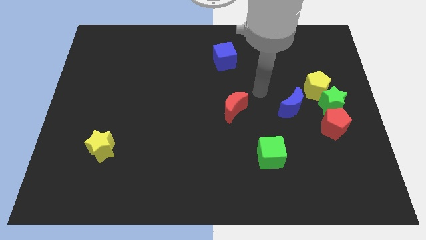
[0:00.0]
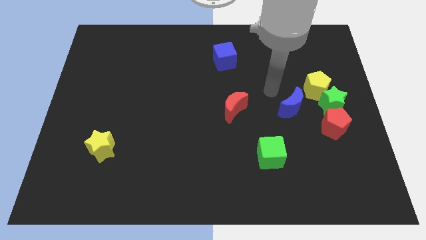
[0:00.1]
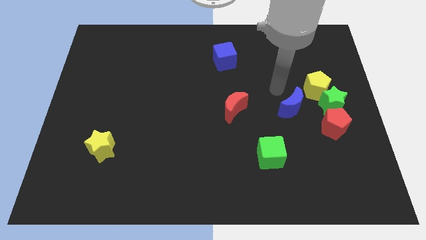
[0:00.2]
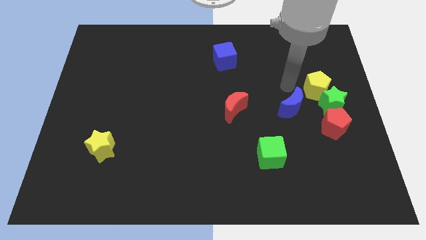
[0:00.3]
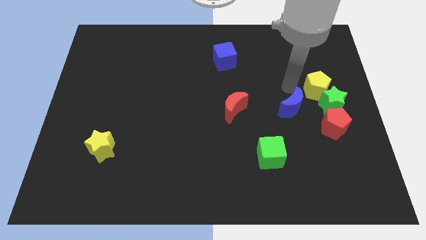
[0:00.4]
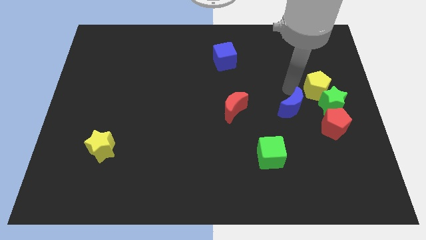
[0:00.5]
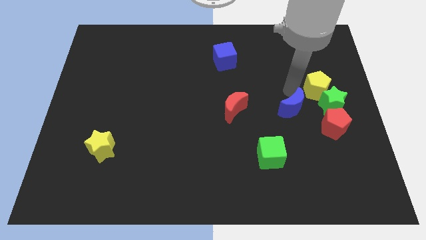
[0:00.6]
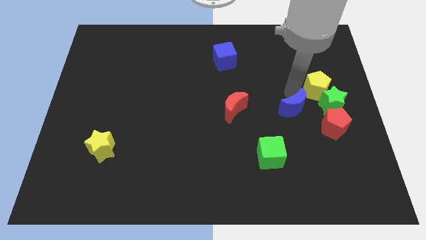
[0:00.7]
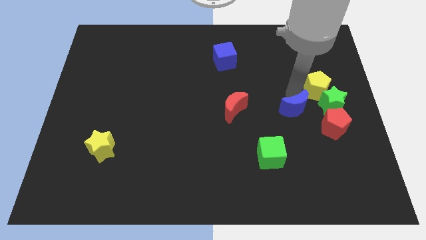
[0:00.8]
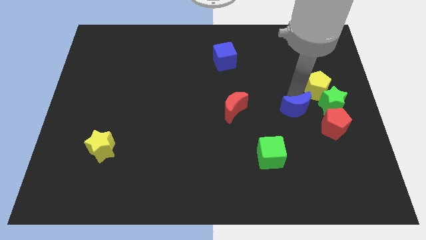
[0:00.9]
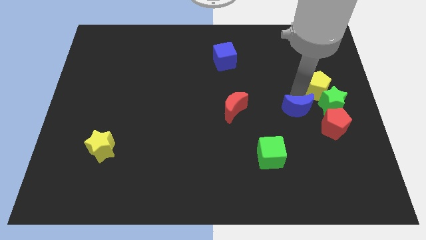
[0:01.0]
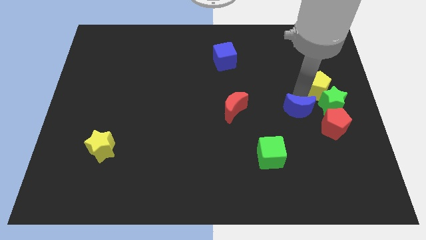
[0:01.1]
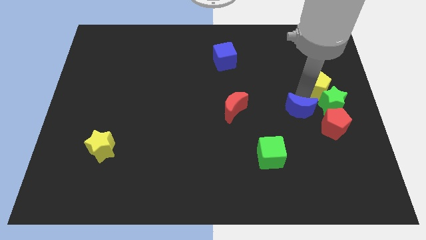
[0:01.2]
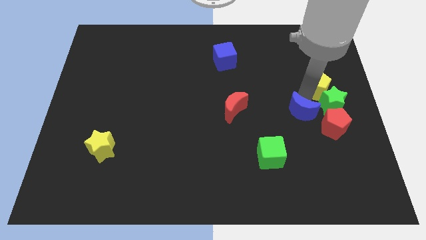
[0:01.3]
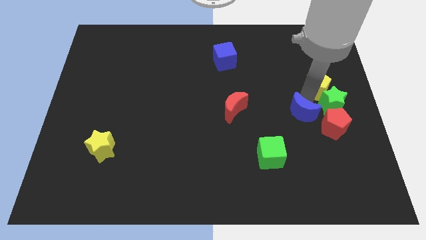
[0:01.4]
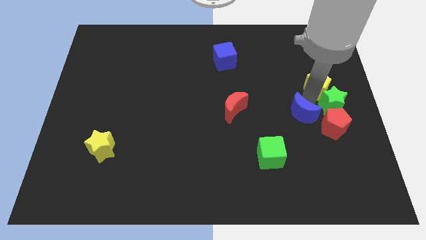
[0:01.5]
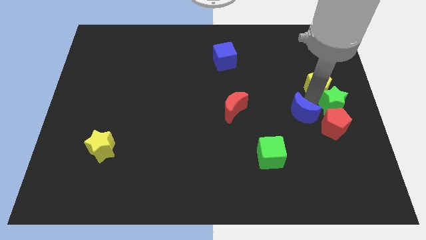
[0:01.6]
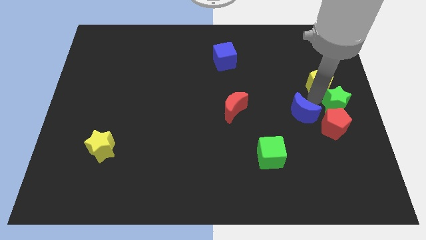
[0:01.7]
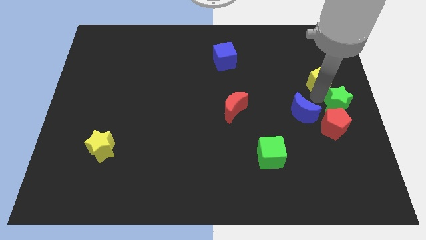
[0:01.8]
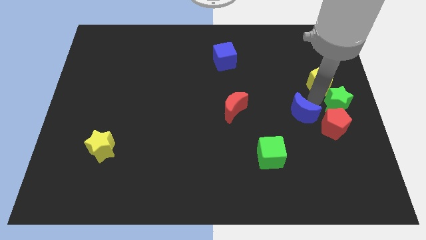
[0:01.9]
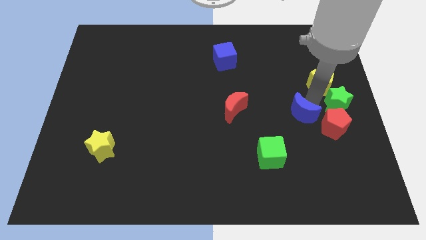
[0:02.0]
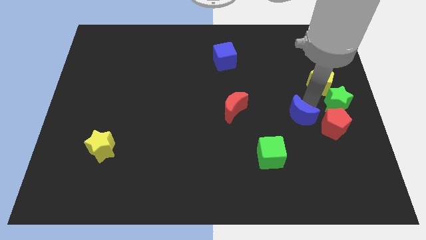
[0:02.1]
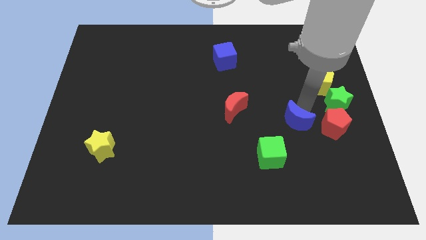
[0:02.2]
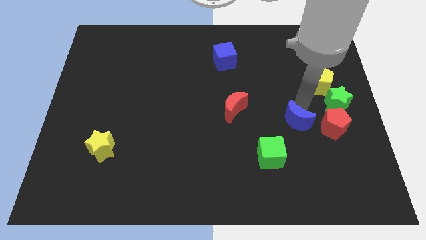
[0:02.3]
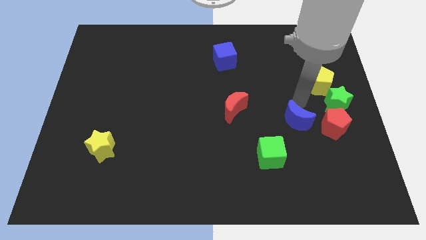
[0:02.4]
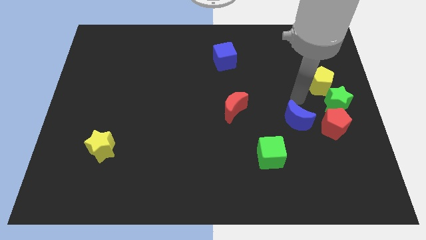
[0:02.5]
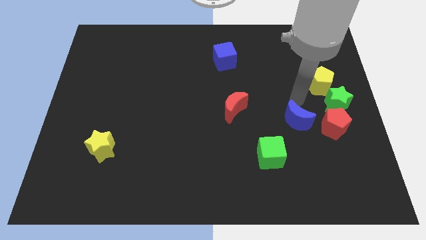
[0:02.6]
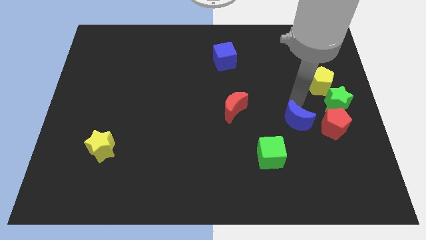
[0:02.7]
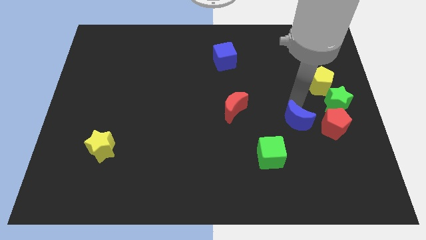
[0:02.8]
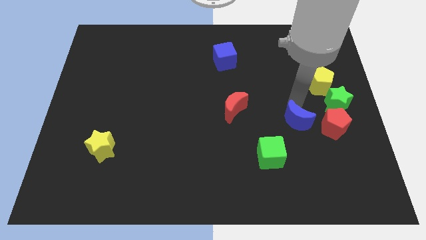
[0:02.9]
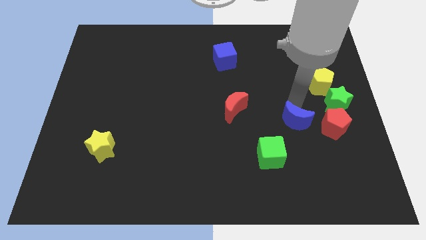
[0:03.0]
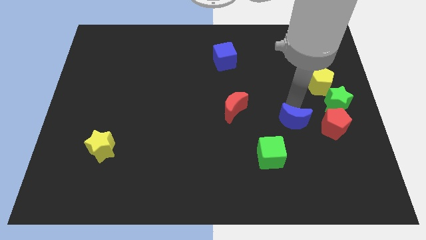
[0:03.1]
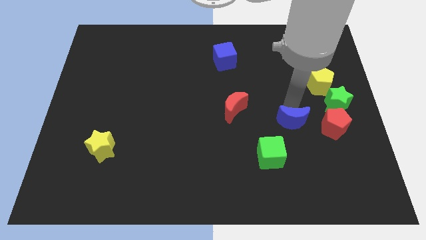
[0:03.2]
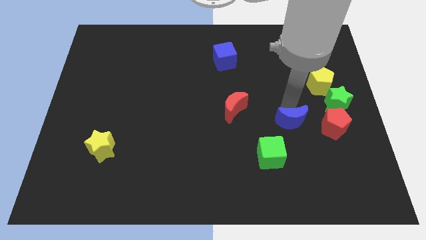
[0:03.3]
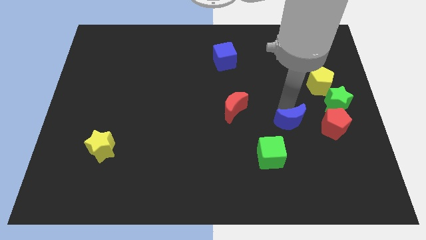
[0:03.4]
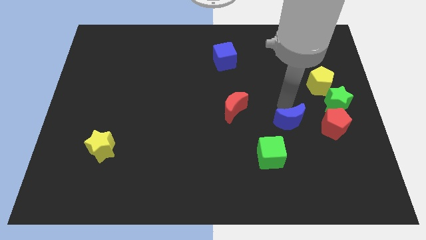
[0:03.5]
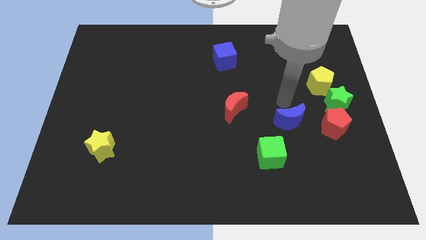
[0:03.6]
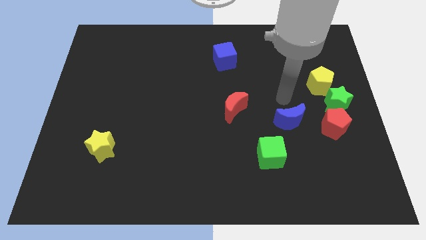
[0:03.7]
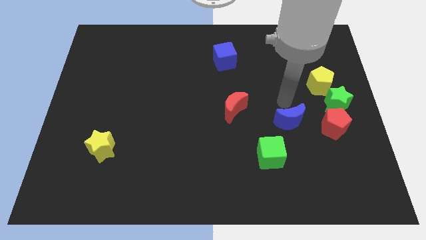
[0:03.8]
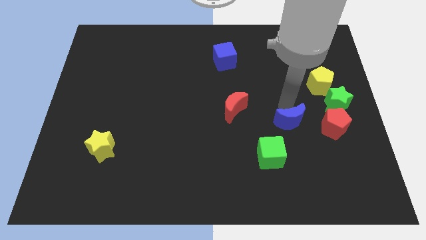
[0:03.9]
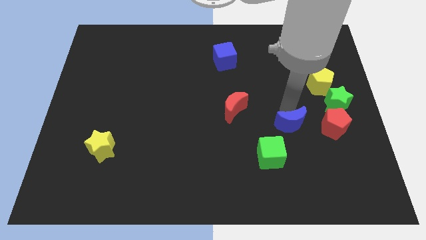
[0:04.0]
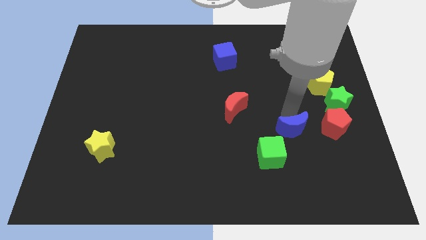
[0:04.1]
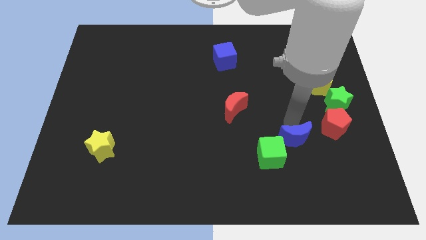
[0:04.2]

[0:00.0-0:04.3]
move the blue moon a little bit downwards

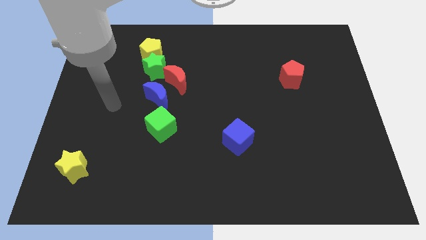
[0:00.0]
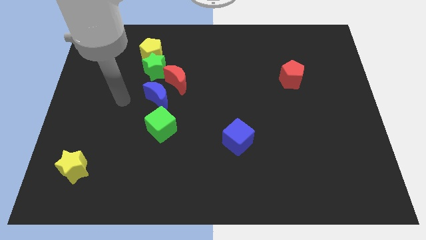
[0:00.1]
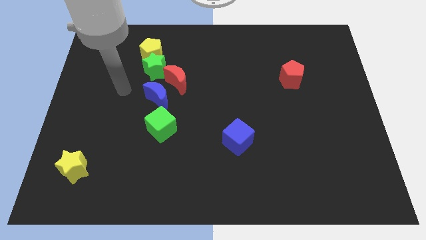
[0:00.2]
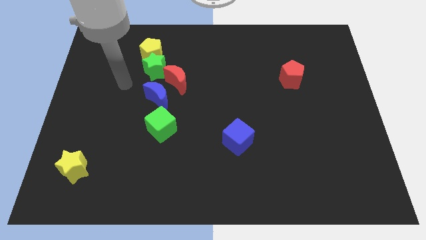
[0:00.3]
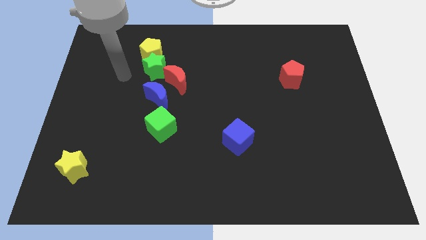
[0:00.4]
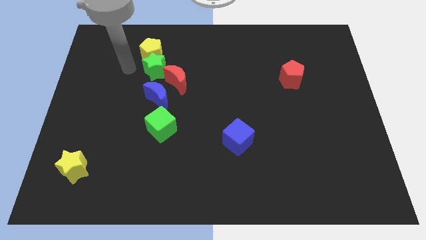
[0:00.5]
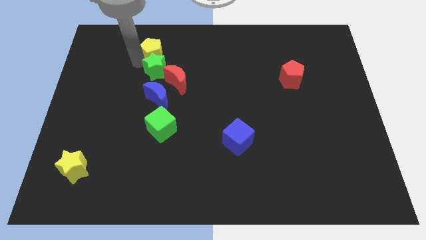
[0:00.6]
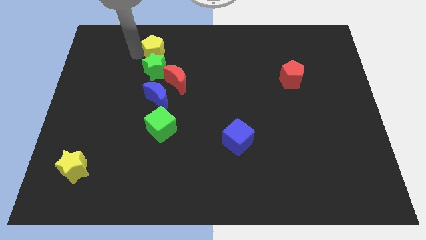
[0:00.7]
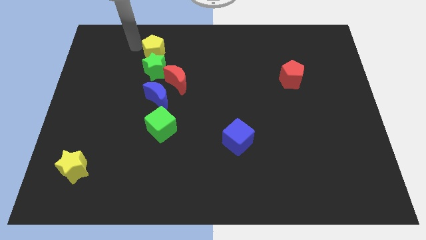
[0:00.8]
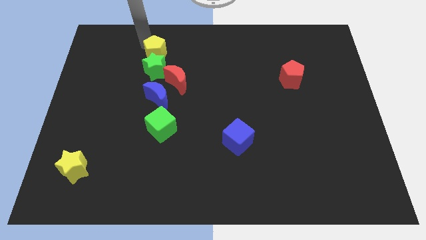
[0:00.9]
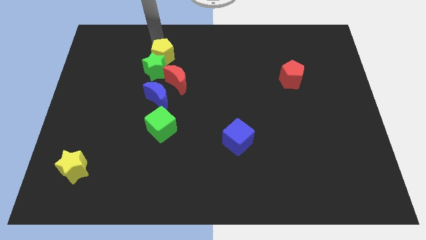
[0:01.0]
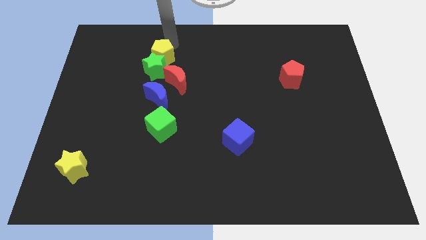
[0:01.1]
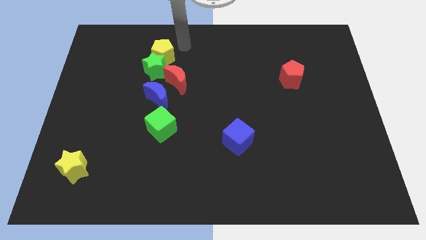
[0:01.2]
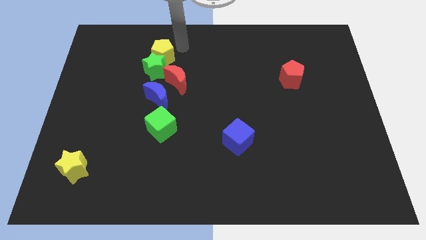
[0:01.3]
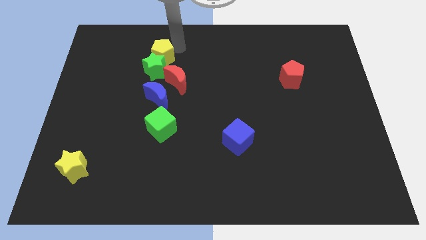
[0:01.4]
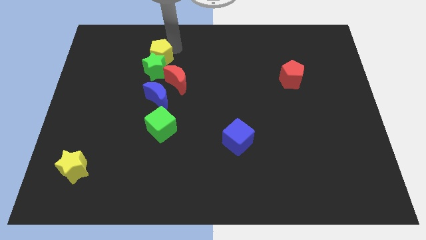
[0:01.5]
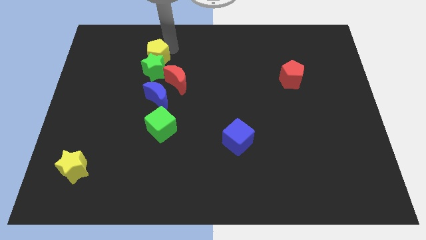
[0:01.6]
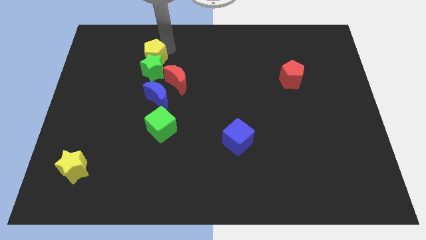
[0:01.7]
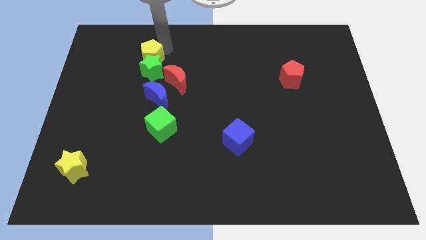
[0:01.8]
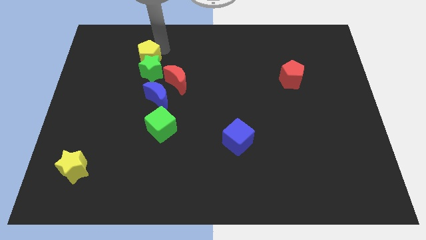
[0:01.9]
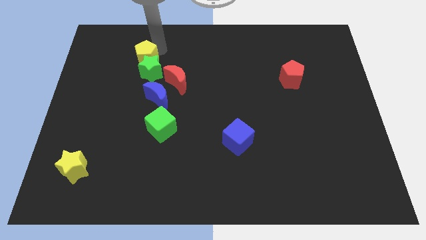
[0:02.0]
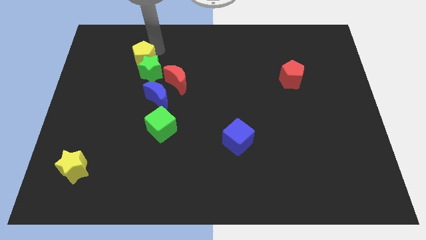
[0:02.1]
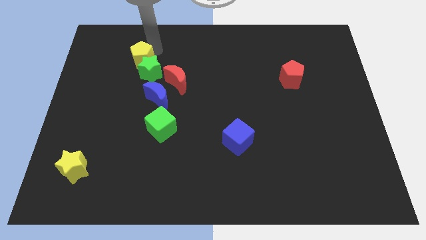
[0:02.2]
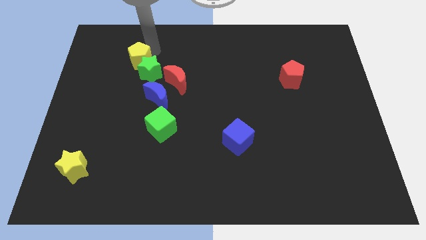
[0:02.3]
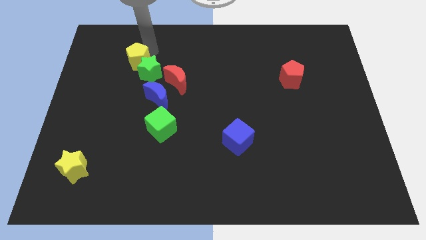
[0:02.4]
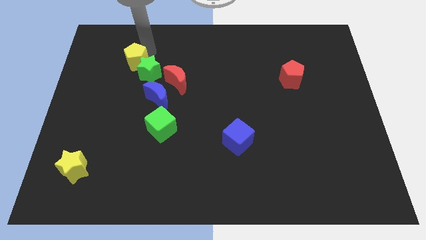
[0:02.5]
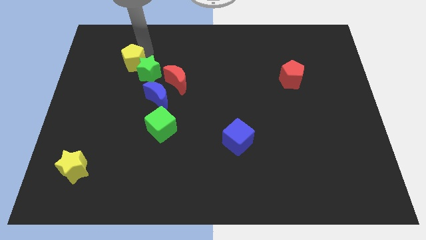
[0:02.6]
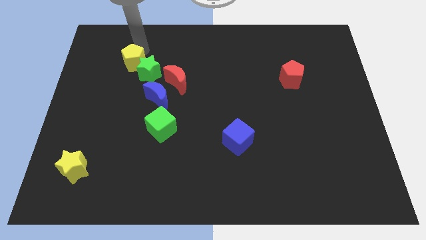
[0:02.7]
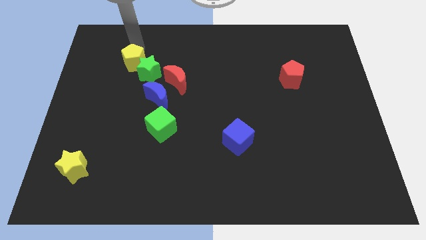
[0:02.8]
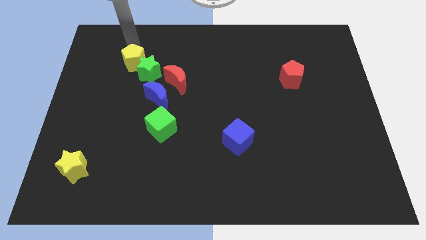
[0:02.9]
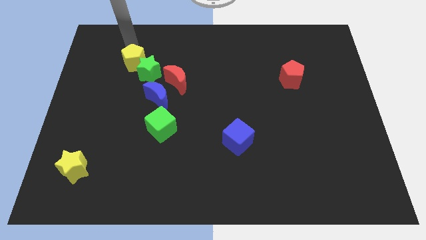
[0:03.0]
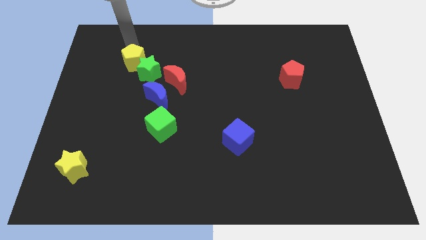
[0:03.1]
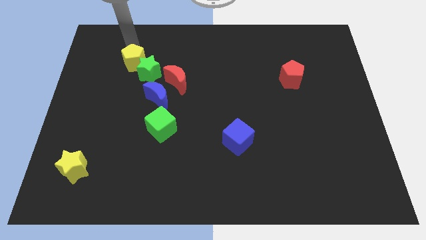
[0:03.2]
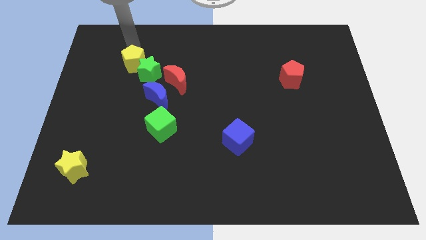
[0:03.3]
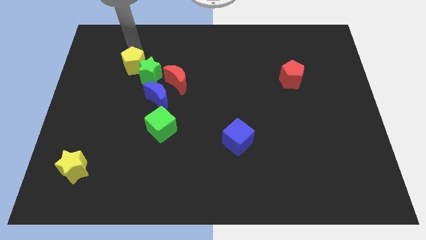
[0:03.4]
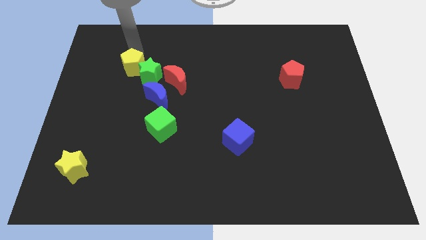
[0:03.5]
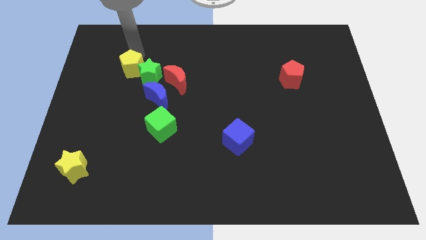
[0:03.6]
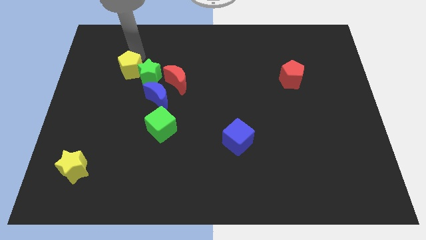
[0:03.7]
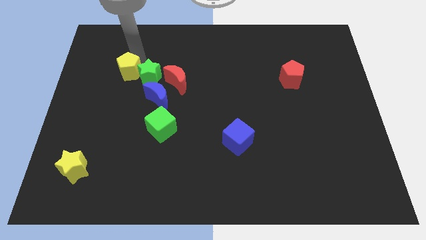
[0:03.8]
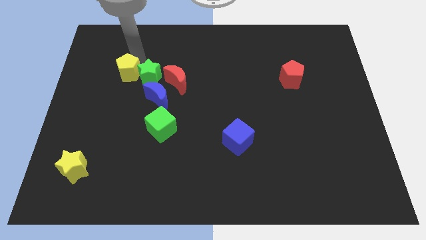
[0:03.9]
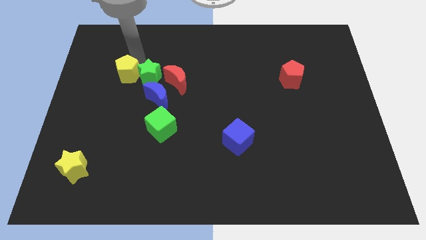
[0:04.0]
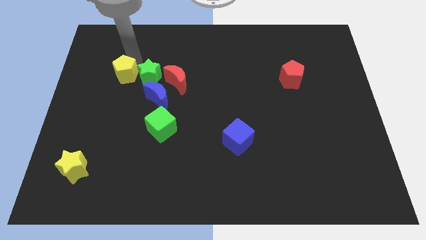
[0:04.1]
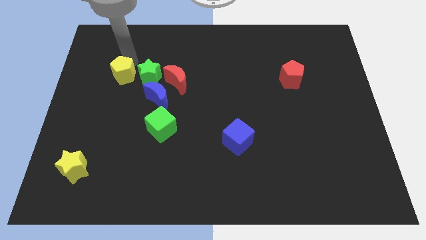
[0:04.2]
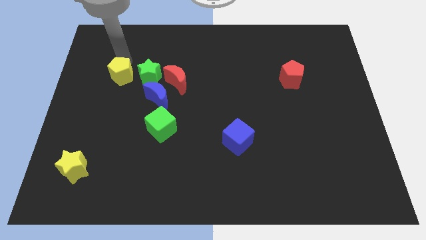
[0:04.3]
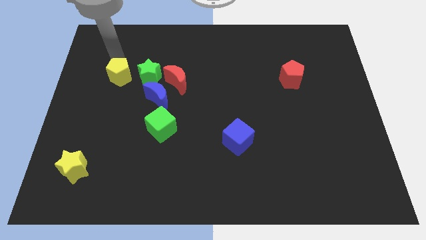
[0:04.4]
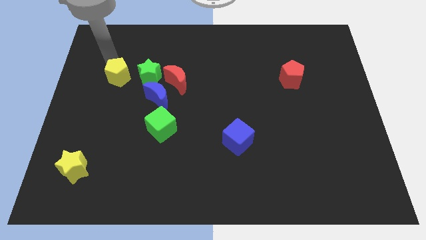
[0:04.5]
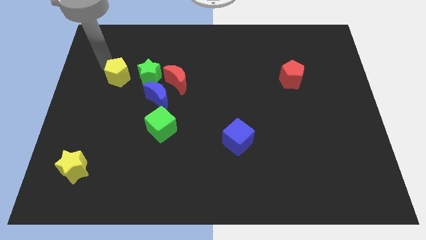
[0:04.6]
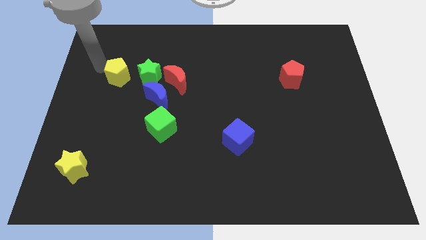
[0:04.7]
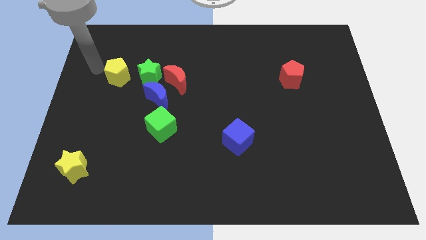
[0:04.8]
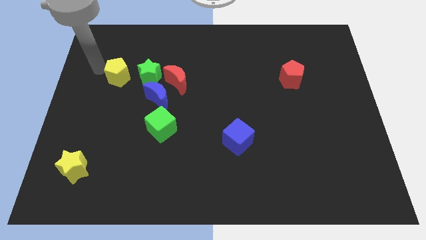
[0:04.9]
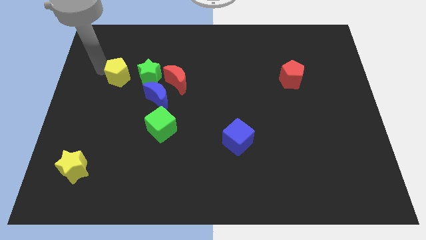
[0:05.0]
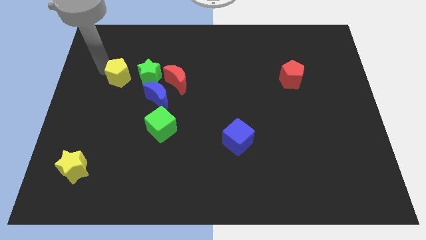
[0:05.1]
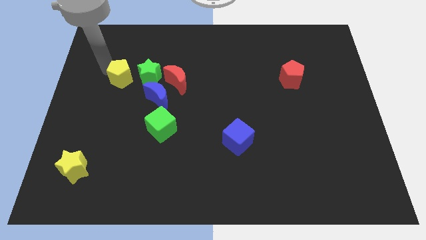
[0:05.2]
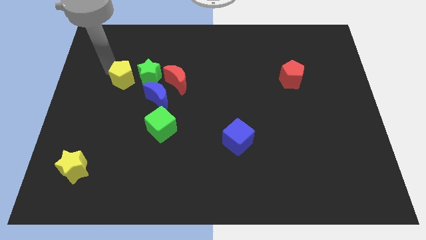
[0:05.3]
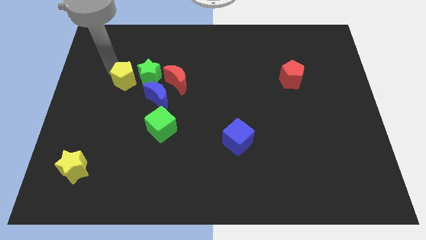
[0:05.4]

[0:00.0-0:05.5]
push the yellow pentagon down a bit
